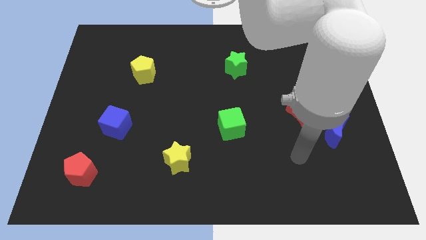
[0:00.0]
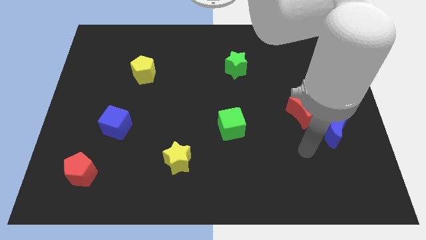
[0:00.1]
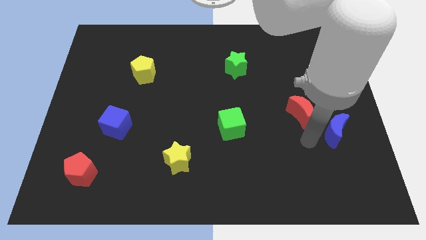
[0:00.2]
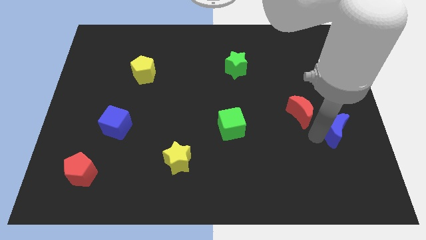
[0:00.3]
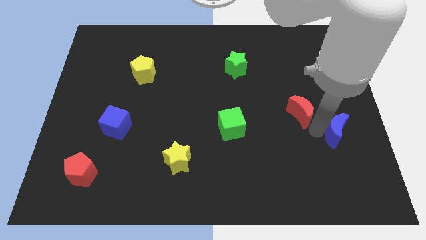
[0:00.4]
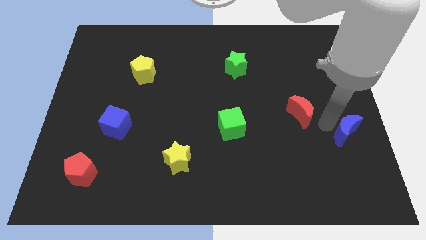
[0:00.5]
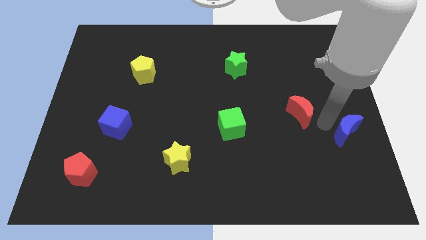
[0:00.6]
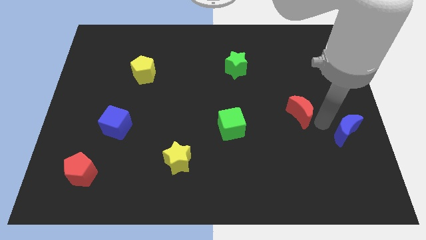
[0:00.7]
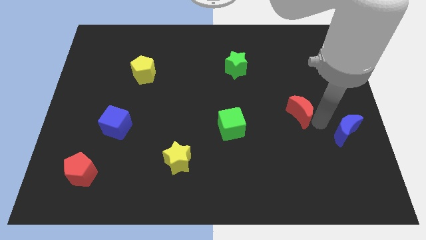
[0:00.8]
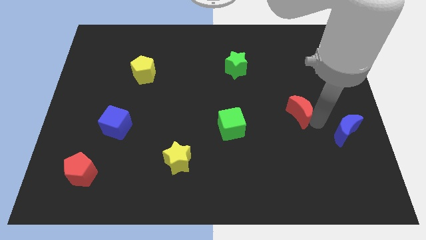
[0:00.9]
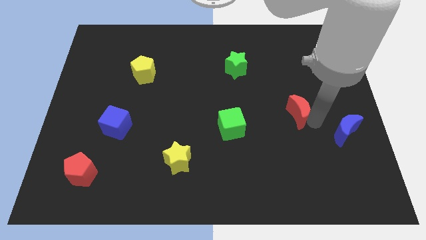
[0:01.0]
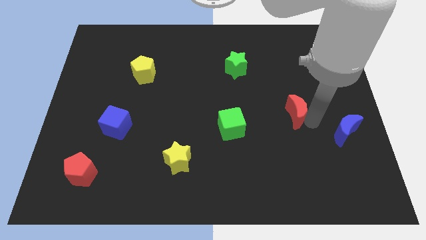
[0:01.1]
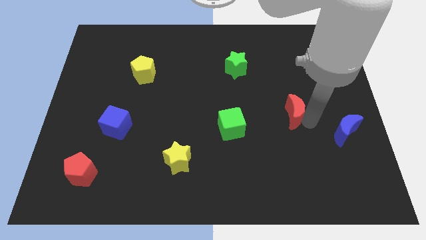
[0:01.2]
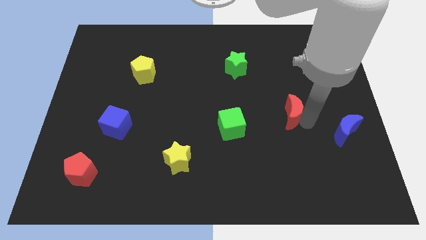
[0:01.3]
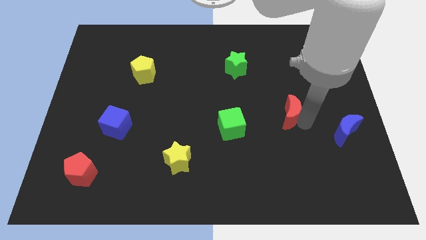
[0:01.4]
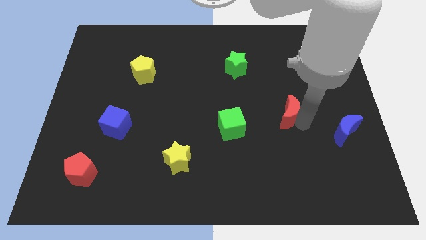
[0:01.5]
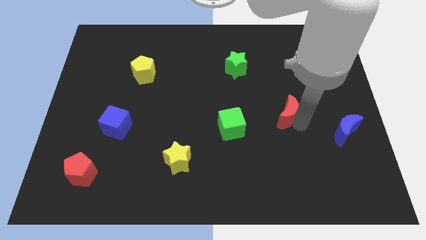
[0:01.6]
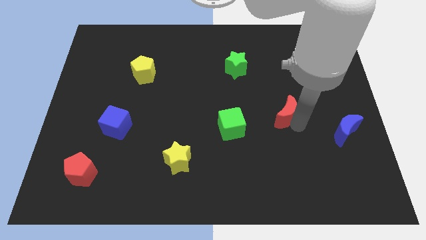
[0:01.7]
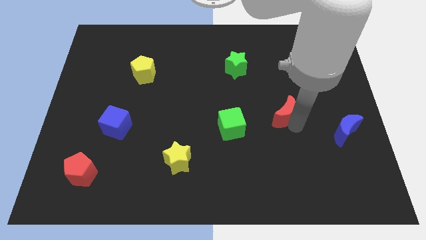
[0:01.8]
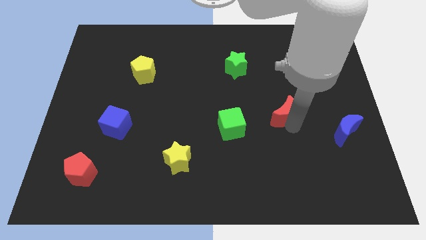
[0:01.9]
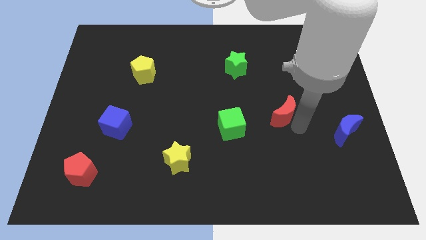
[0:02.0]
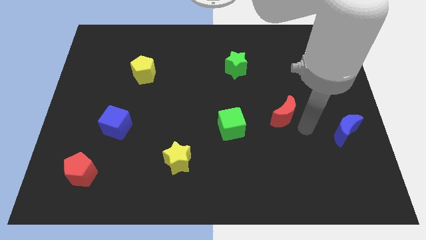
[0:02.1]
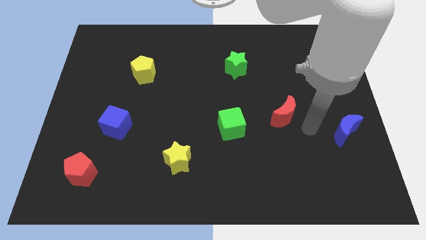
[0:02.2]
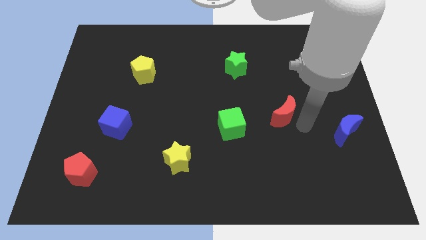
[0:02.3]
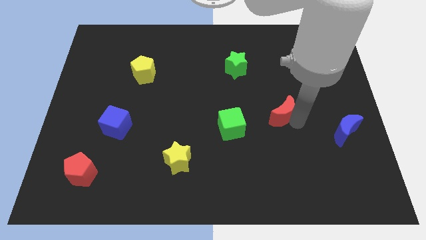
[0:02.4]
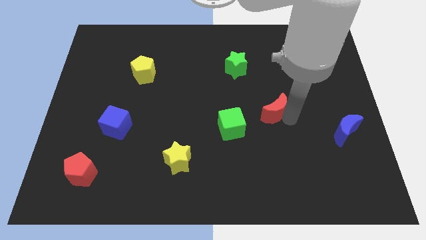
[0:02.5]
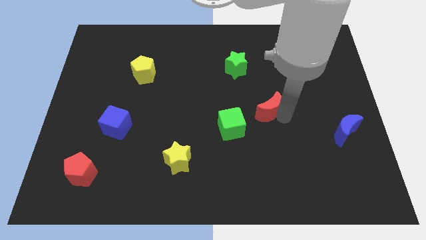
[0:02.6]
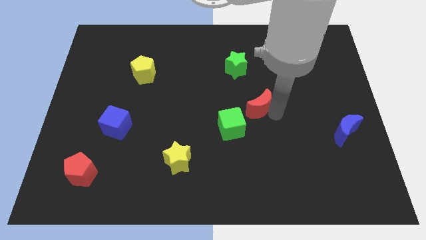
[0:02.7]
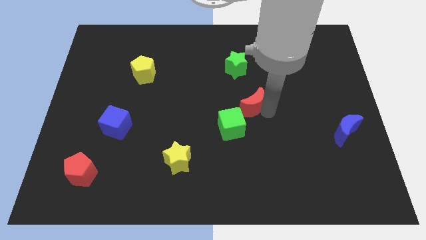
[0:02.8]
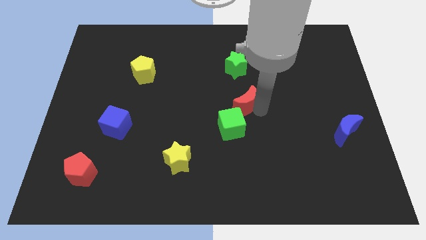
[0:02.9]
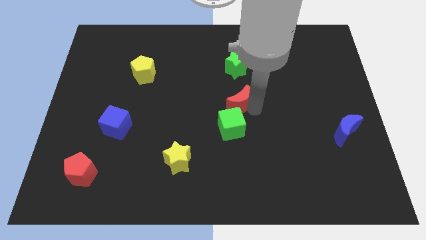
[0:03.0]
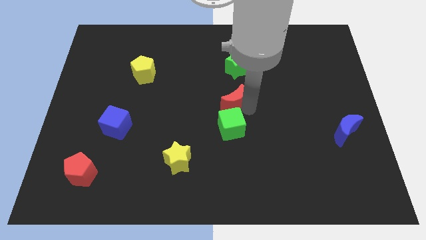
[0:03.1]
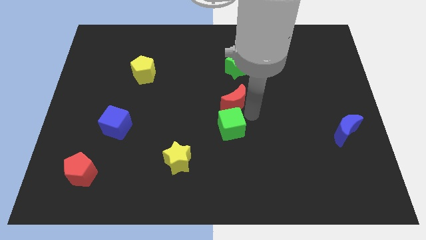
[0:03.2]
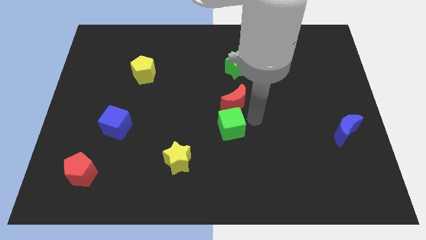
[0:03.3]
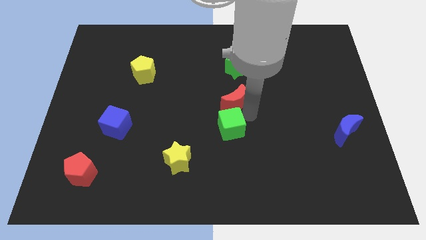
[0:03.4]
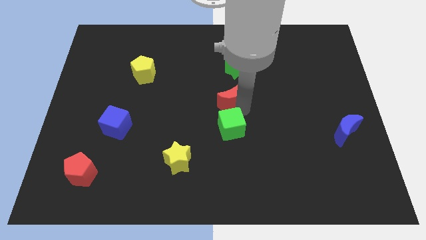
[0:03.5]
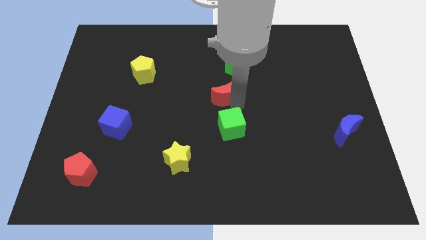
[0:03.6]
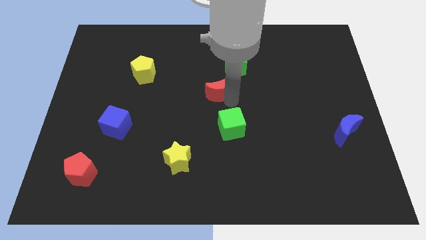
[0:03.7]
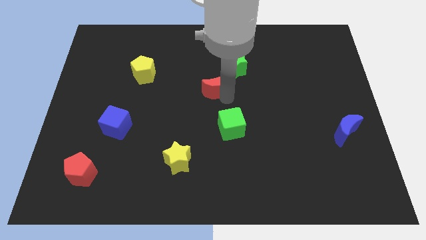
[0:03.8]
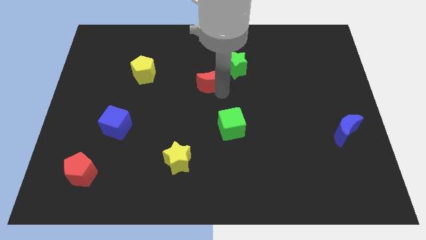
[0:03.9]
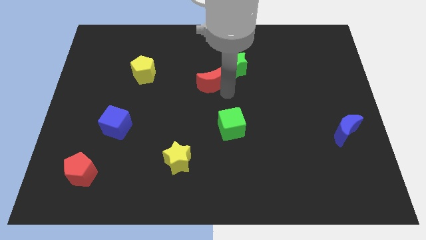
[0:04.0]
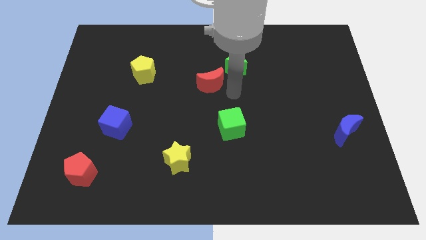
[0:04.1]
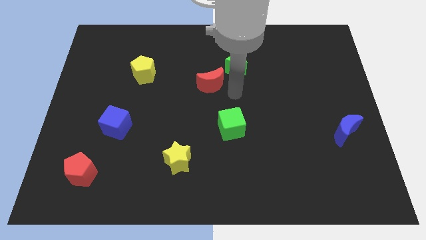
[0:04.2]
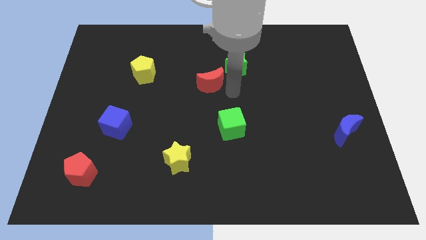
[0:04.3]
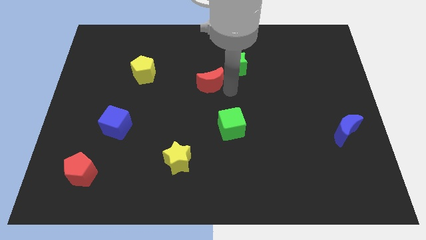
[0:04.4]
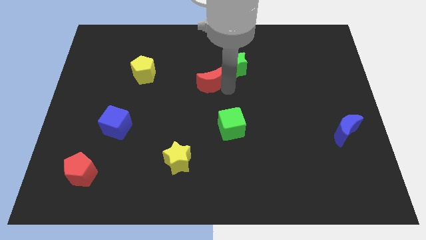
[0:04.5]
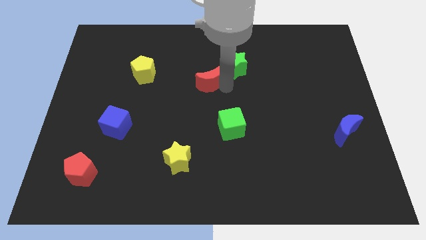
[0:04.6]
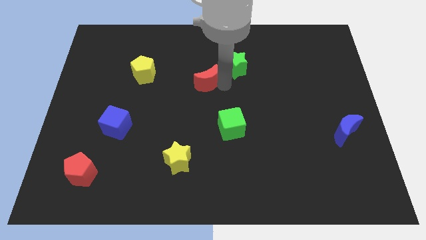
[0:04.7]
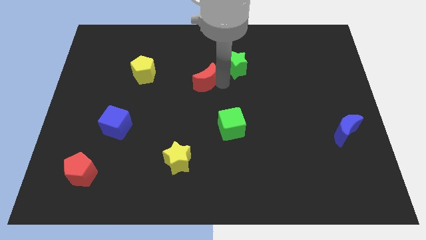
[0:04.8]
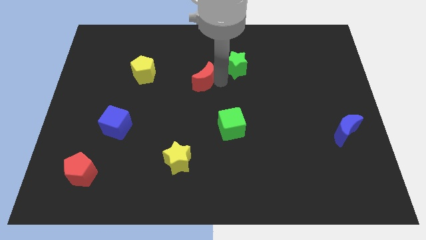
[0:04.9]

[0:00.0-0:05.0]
put the red moon to the right of the yellow pentagon

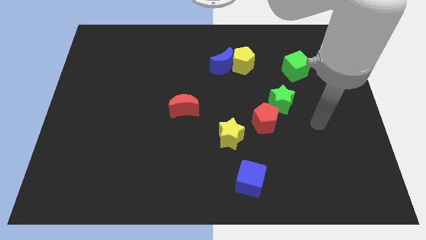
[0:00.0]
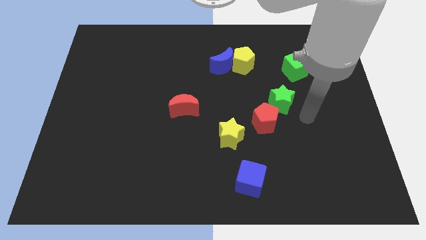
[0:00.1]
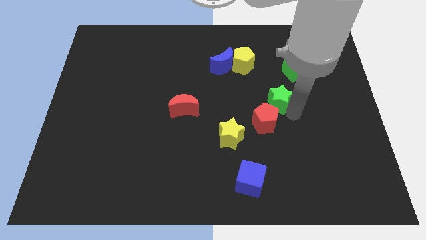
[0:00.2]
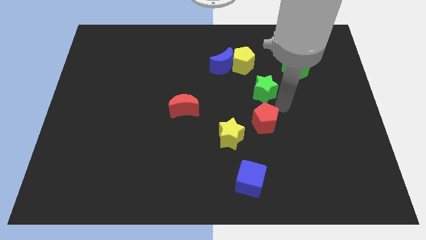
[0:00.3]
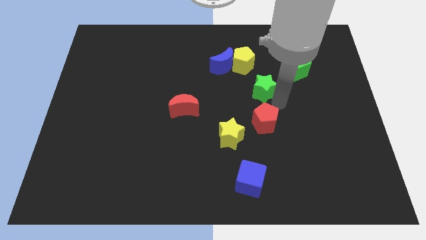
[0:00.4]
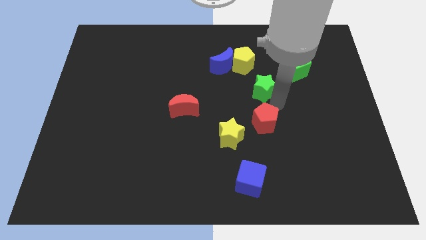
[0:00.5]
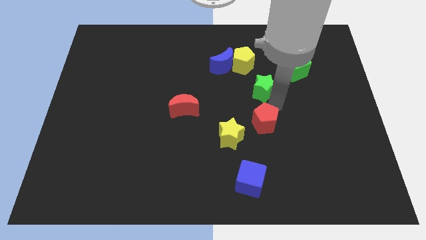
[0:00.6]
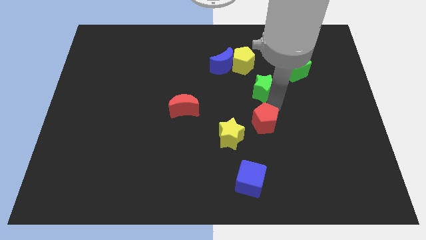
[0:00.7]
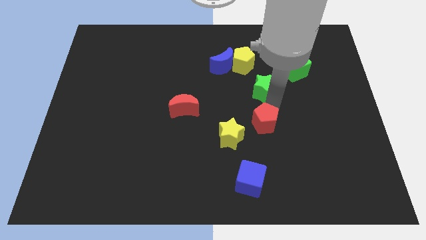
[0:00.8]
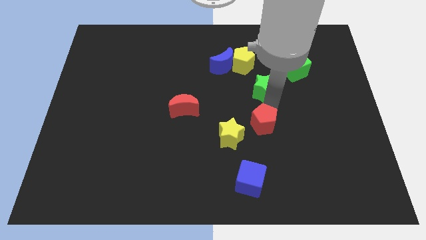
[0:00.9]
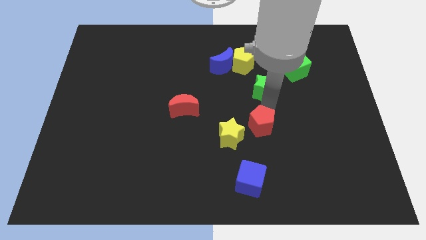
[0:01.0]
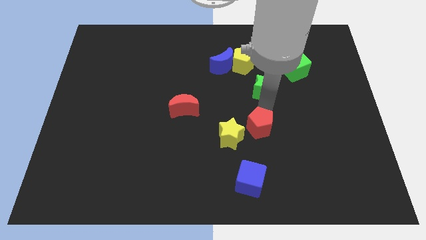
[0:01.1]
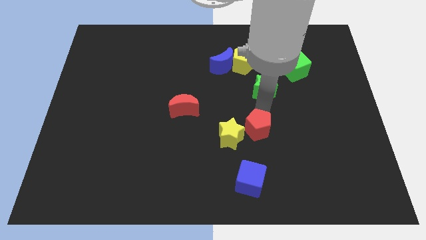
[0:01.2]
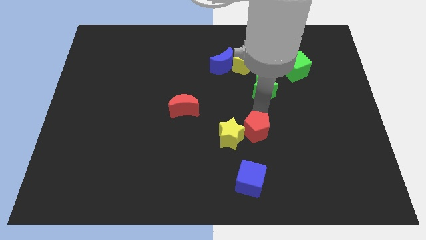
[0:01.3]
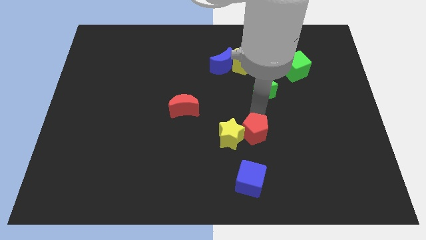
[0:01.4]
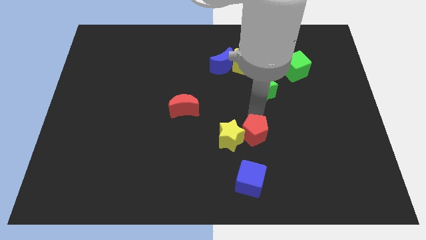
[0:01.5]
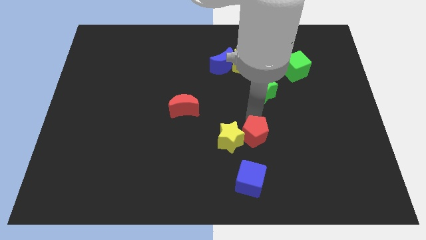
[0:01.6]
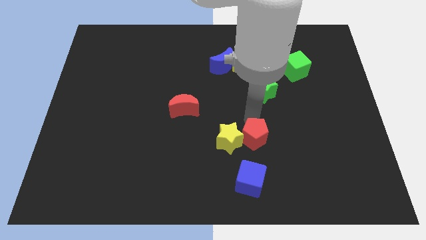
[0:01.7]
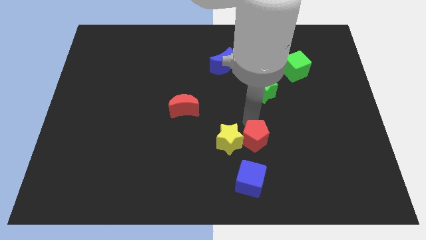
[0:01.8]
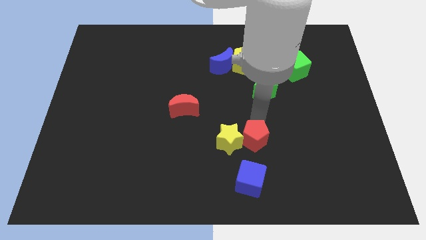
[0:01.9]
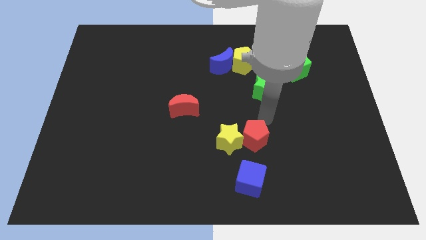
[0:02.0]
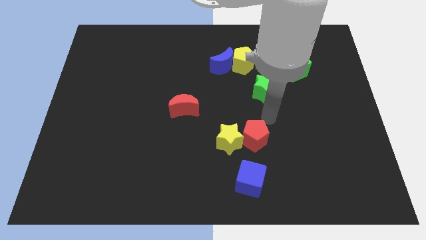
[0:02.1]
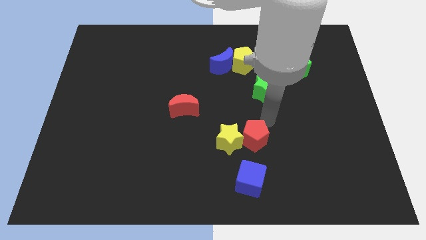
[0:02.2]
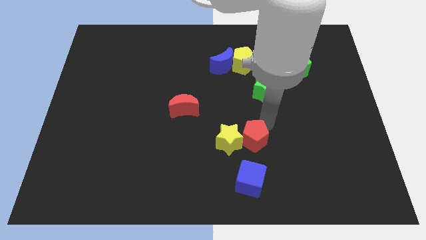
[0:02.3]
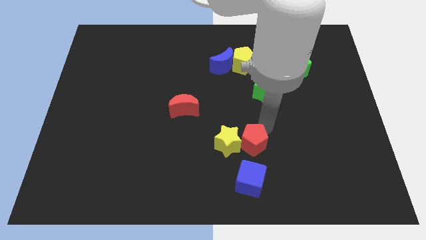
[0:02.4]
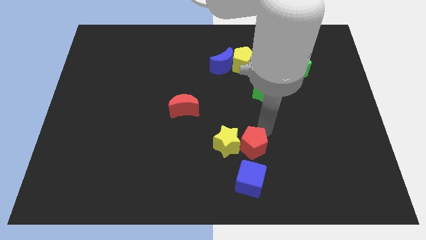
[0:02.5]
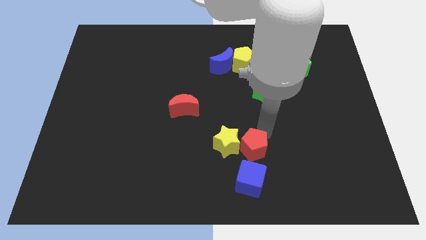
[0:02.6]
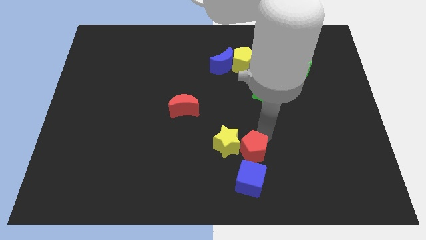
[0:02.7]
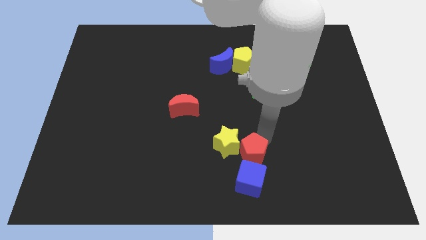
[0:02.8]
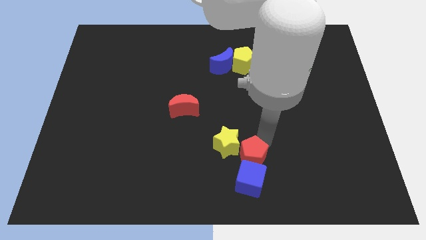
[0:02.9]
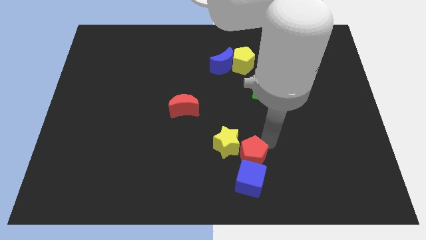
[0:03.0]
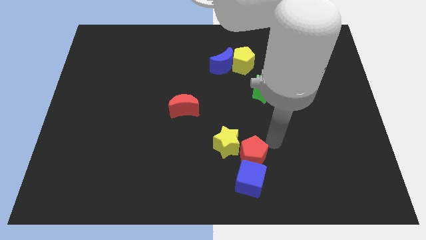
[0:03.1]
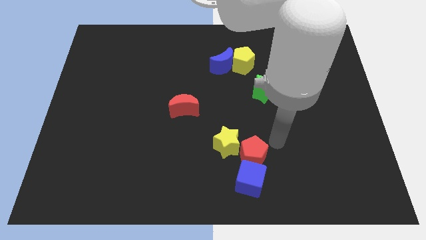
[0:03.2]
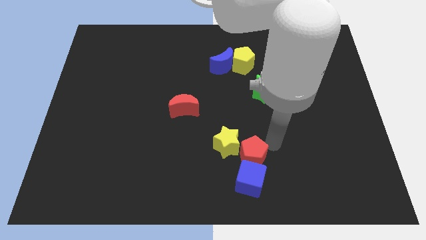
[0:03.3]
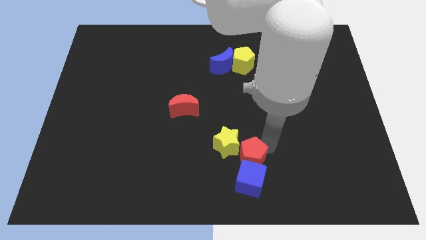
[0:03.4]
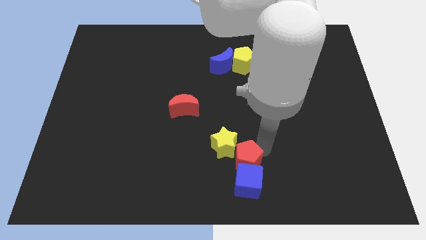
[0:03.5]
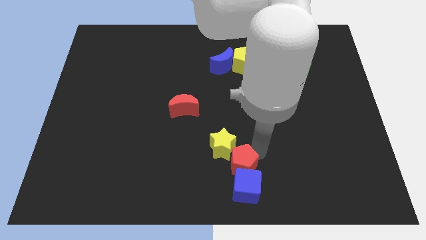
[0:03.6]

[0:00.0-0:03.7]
put the red pentagon to the bottom of the yellow star
